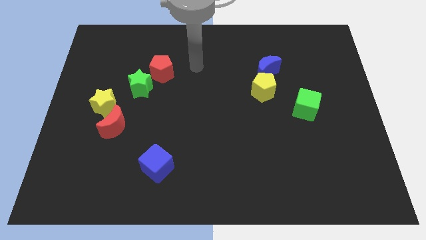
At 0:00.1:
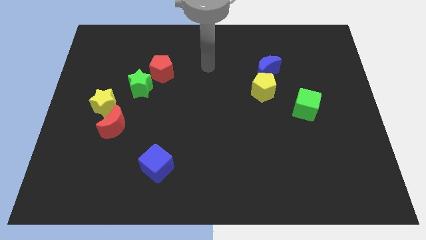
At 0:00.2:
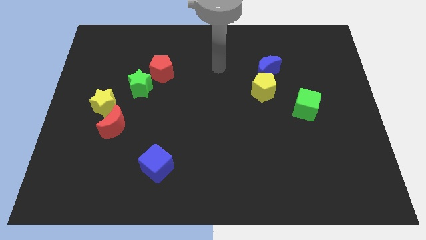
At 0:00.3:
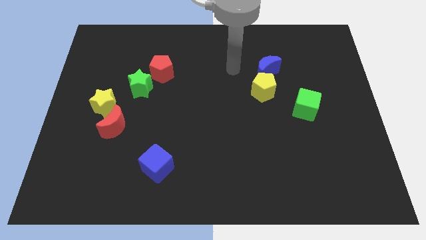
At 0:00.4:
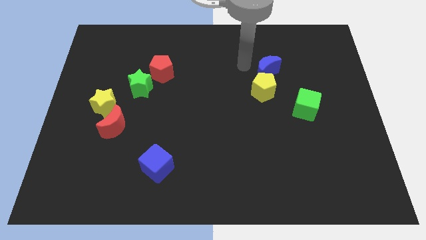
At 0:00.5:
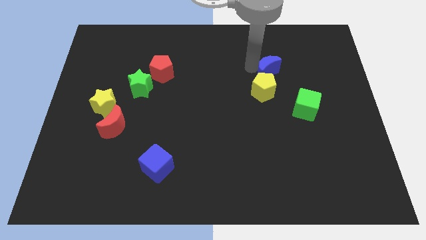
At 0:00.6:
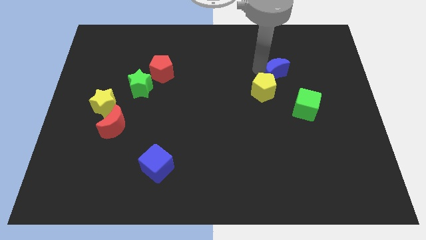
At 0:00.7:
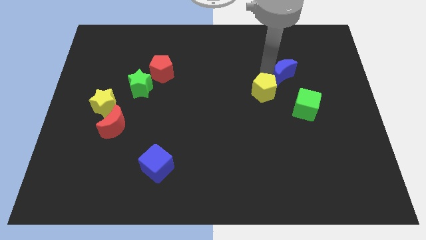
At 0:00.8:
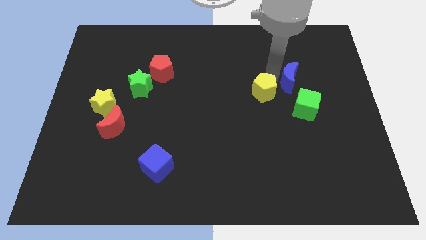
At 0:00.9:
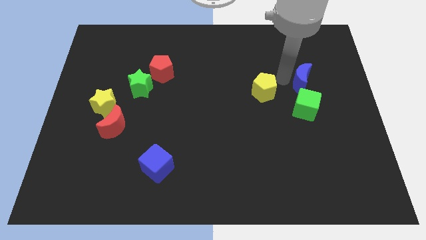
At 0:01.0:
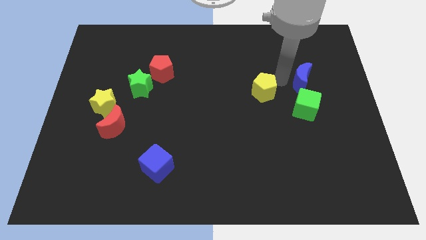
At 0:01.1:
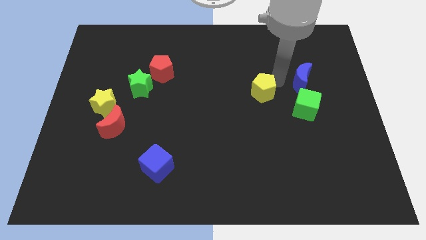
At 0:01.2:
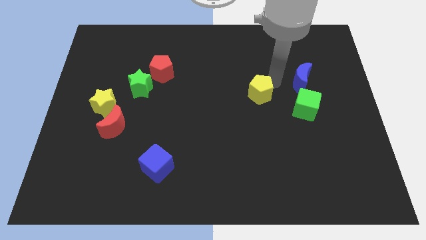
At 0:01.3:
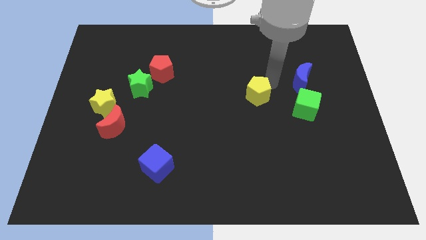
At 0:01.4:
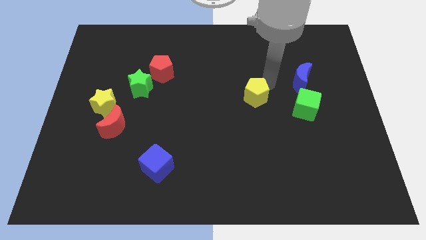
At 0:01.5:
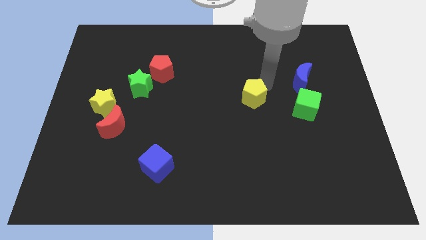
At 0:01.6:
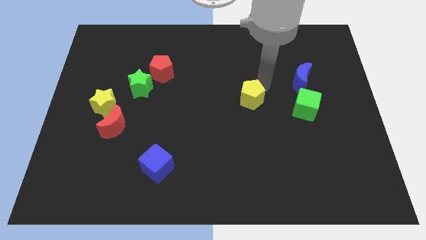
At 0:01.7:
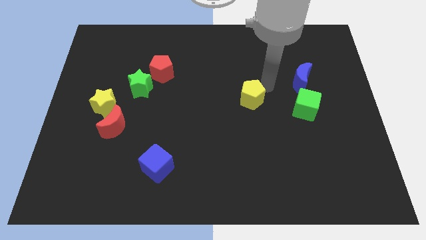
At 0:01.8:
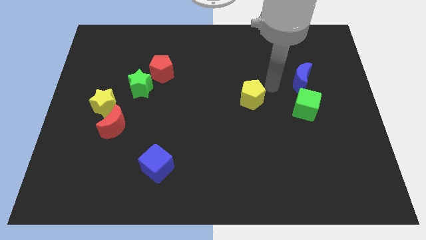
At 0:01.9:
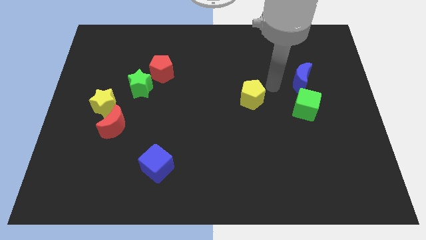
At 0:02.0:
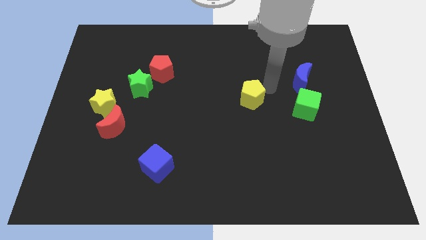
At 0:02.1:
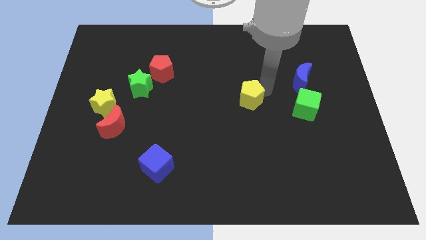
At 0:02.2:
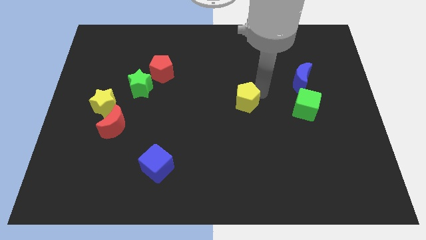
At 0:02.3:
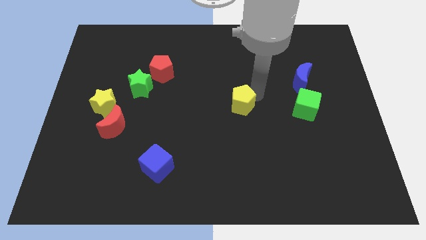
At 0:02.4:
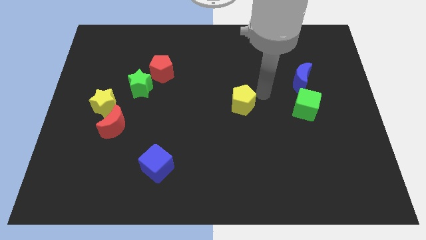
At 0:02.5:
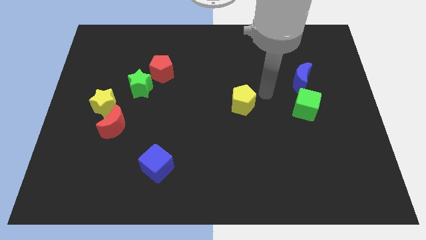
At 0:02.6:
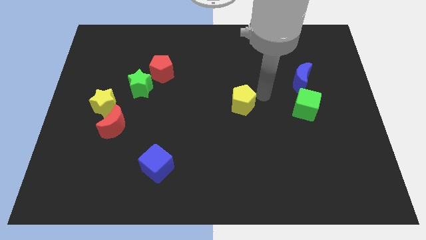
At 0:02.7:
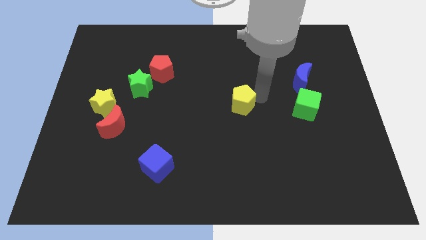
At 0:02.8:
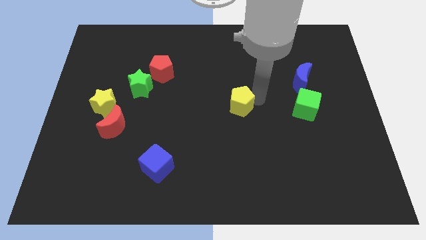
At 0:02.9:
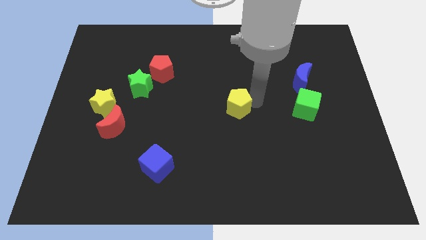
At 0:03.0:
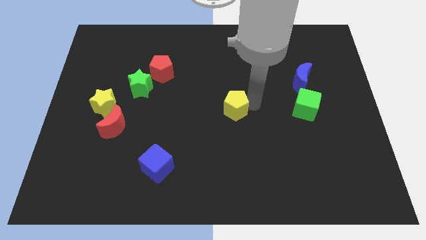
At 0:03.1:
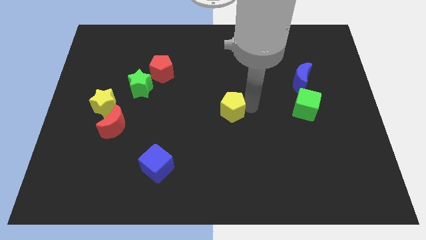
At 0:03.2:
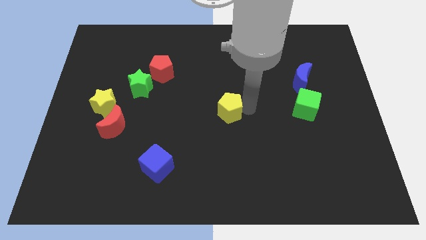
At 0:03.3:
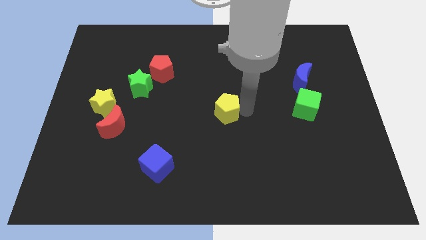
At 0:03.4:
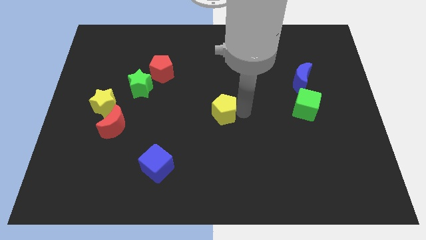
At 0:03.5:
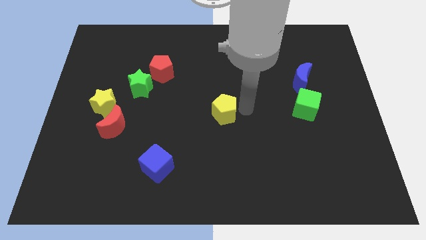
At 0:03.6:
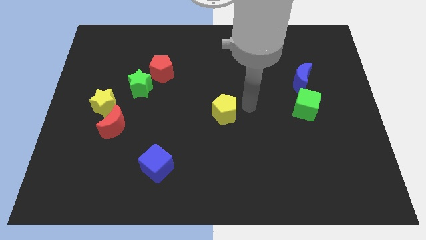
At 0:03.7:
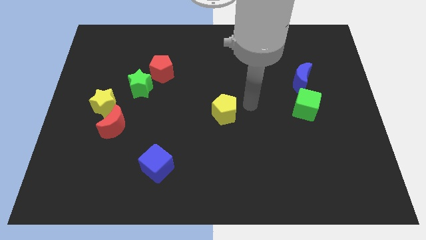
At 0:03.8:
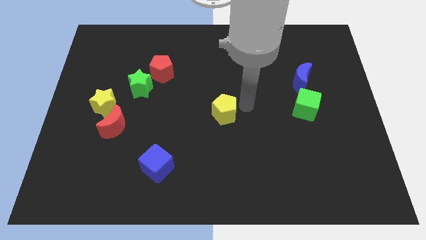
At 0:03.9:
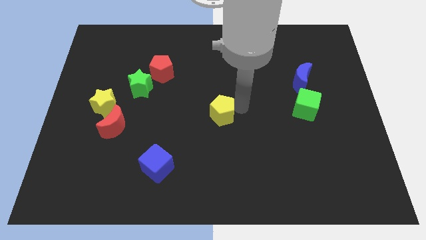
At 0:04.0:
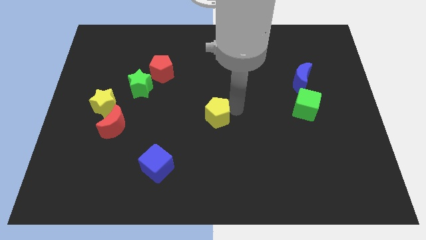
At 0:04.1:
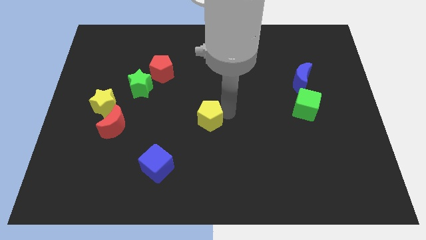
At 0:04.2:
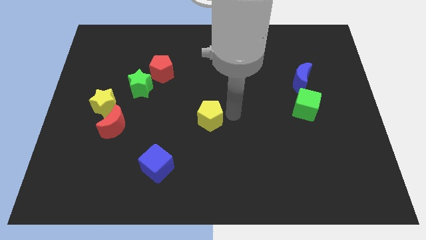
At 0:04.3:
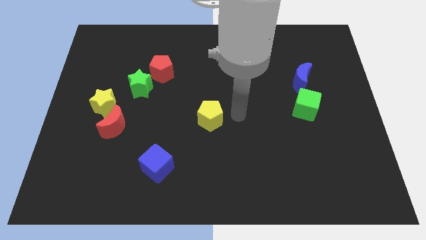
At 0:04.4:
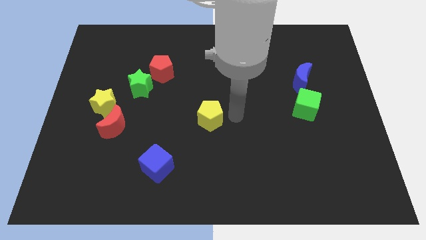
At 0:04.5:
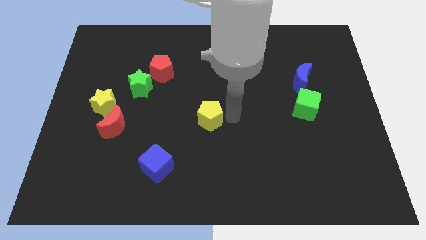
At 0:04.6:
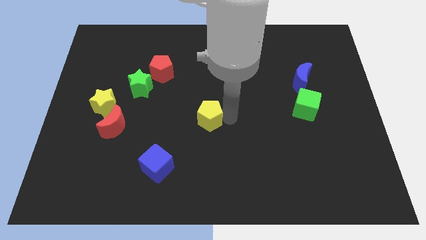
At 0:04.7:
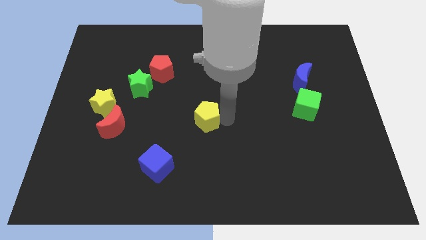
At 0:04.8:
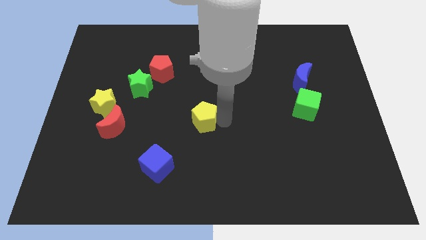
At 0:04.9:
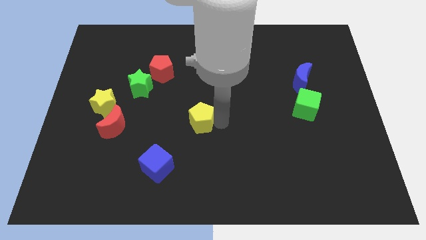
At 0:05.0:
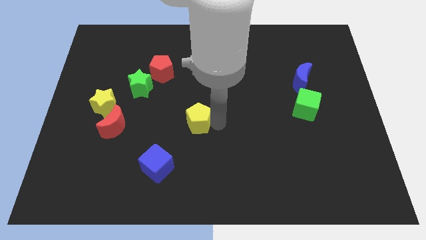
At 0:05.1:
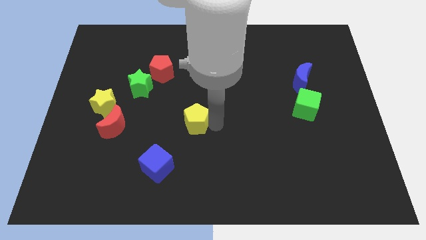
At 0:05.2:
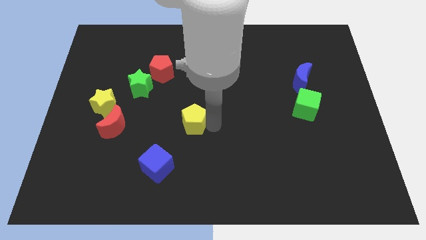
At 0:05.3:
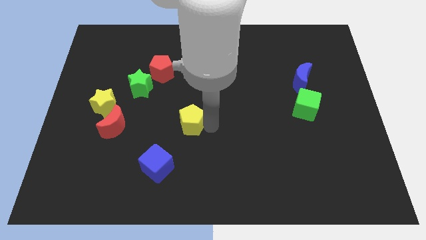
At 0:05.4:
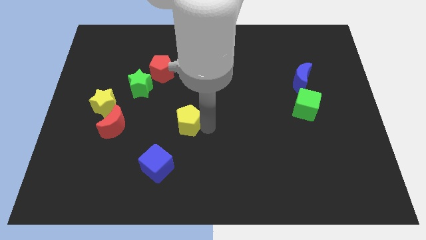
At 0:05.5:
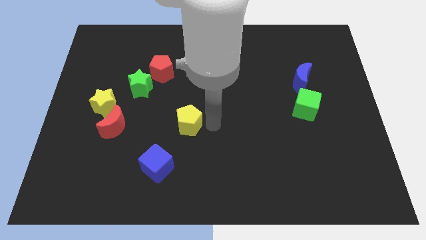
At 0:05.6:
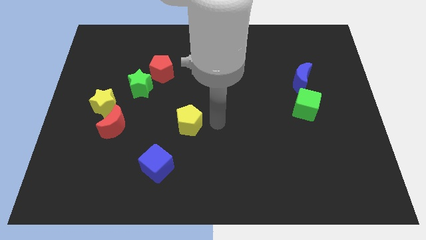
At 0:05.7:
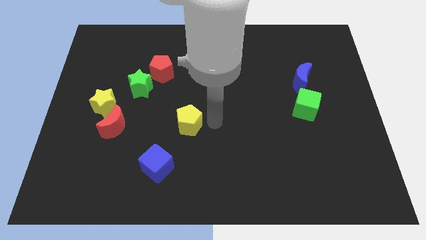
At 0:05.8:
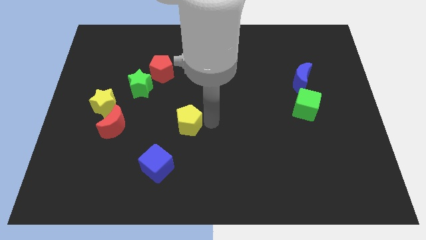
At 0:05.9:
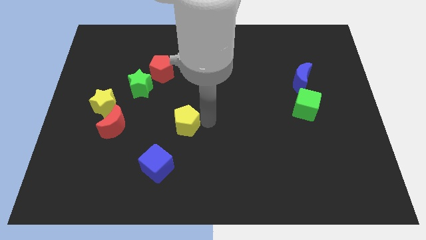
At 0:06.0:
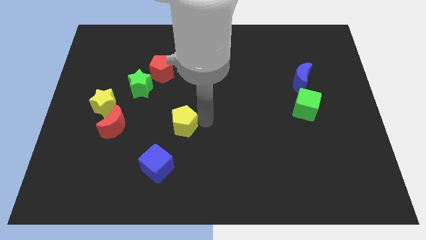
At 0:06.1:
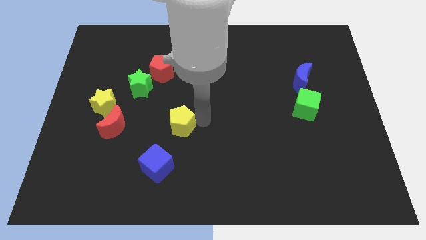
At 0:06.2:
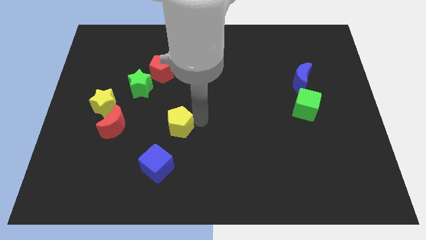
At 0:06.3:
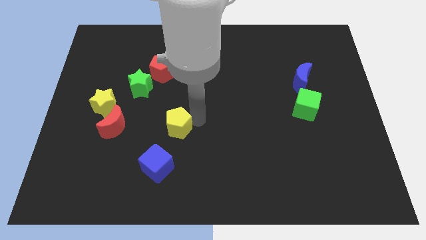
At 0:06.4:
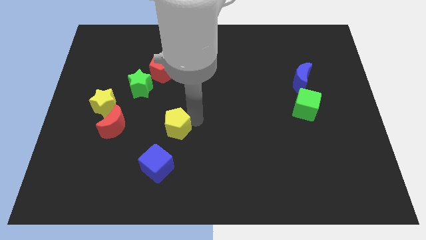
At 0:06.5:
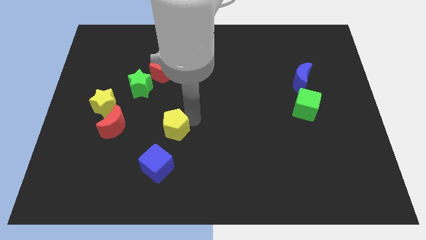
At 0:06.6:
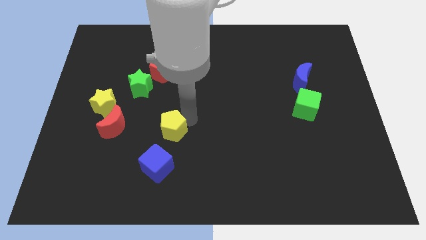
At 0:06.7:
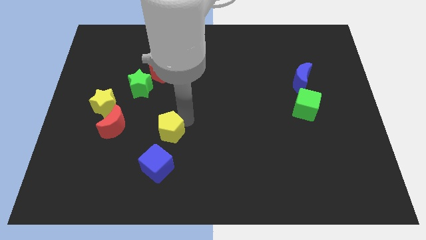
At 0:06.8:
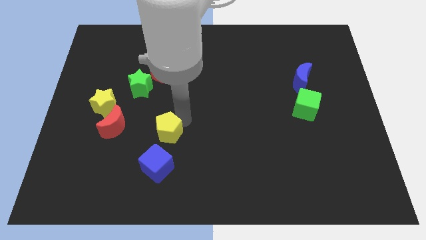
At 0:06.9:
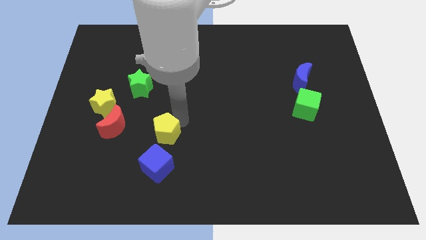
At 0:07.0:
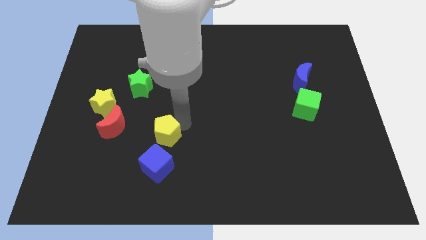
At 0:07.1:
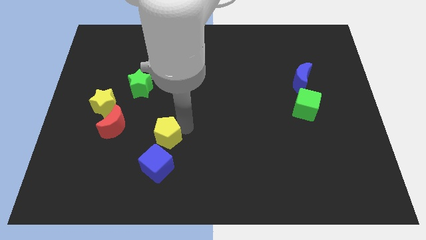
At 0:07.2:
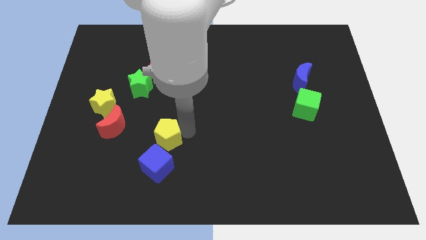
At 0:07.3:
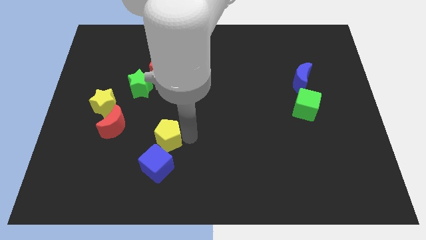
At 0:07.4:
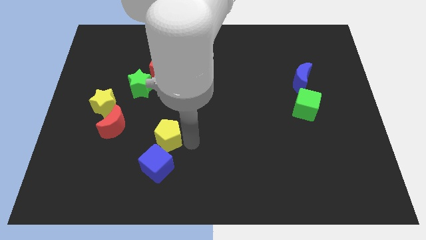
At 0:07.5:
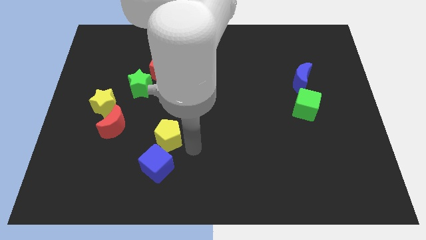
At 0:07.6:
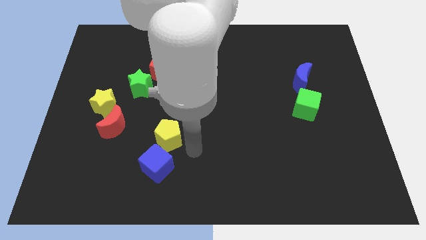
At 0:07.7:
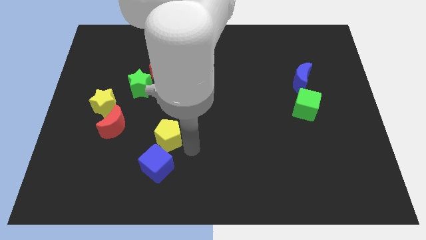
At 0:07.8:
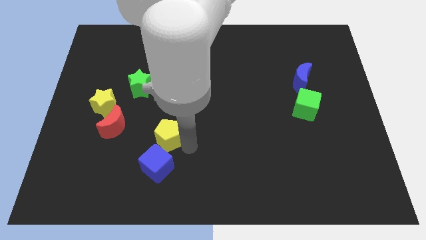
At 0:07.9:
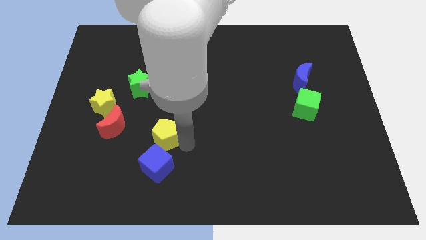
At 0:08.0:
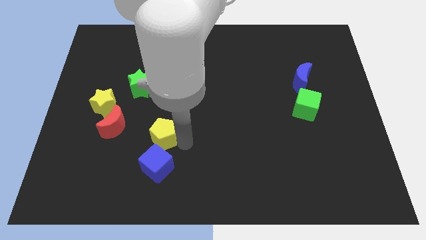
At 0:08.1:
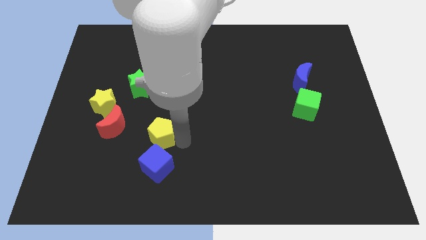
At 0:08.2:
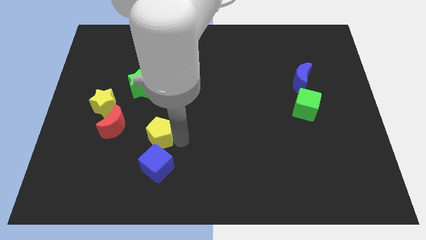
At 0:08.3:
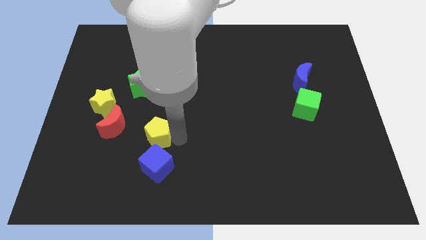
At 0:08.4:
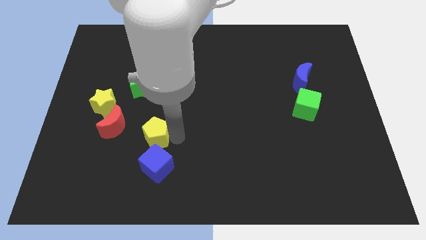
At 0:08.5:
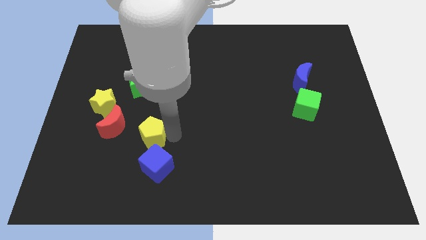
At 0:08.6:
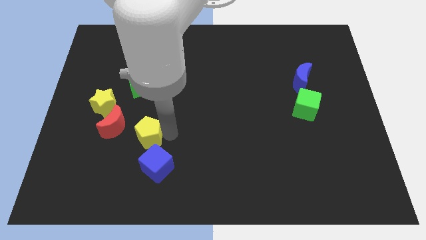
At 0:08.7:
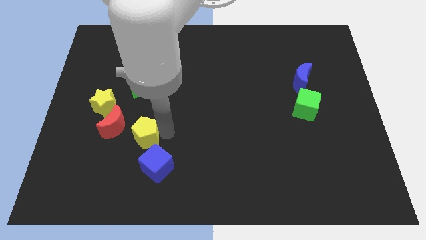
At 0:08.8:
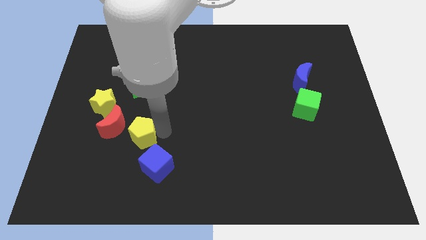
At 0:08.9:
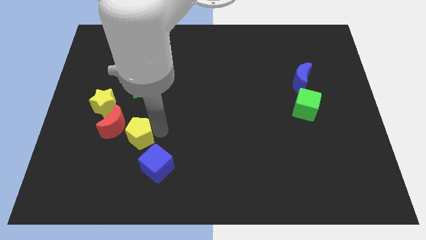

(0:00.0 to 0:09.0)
push the yellow pentagon to the bottom right of the yellow star
